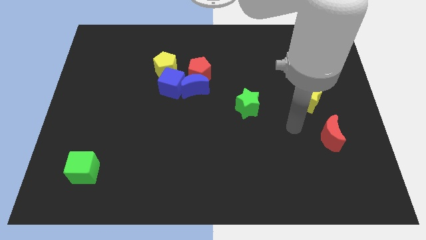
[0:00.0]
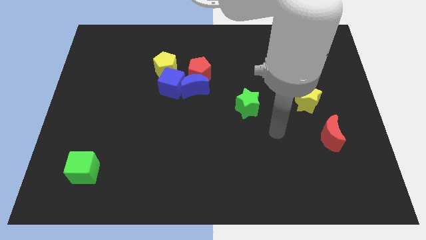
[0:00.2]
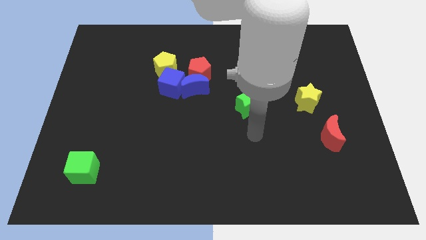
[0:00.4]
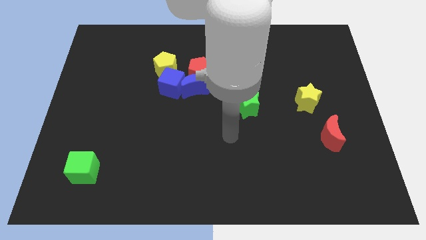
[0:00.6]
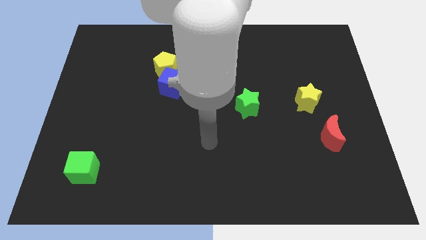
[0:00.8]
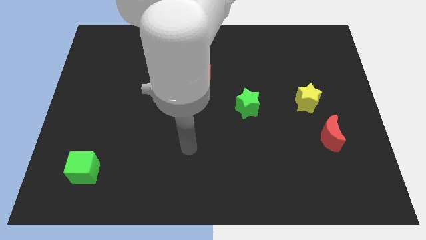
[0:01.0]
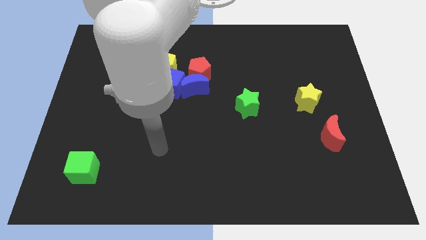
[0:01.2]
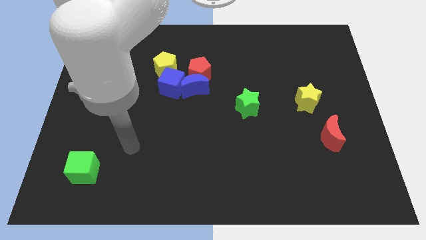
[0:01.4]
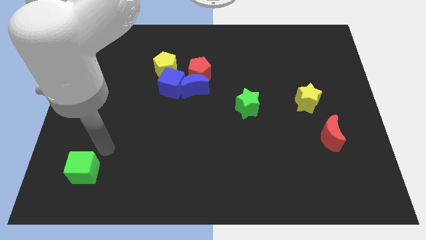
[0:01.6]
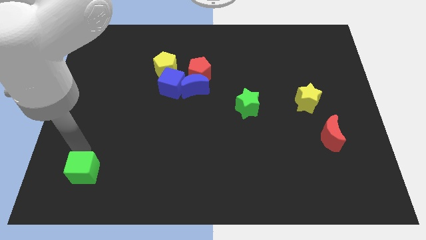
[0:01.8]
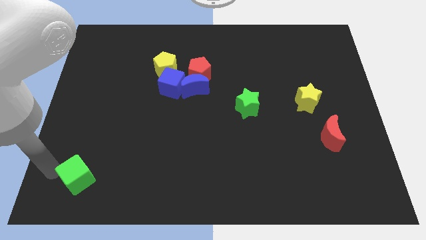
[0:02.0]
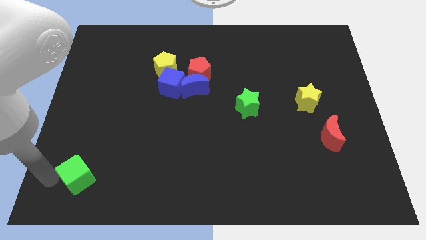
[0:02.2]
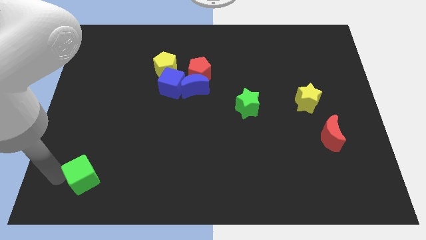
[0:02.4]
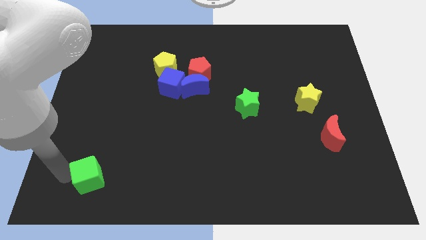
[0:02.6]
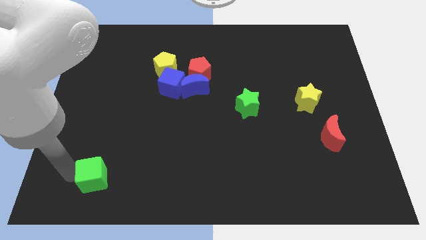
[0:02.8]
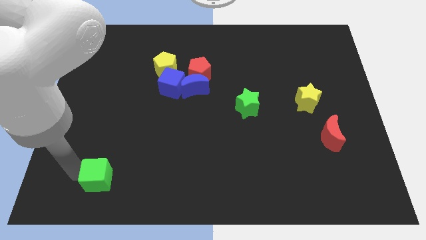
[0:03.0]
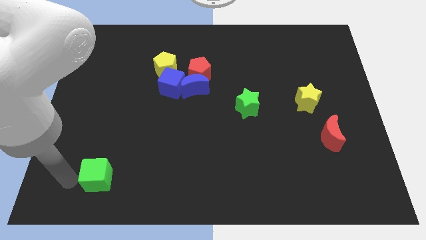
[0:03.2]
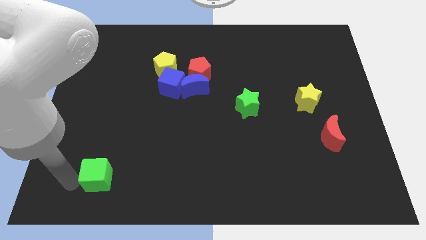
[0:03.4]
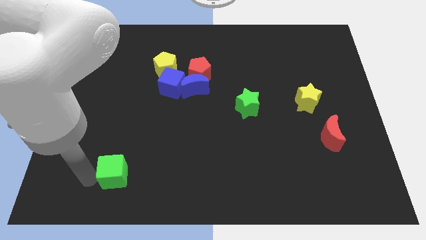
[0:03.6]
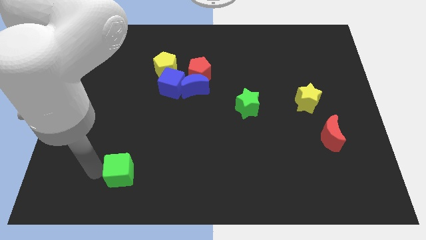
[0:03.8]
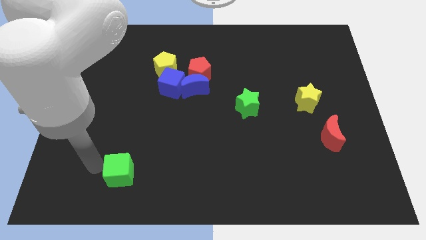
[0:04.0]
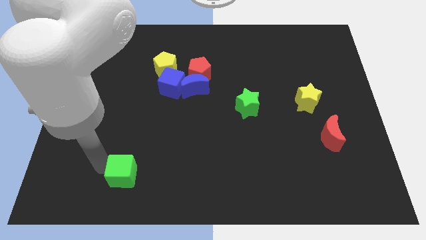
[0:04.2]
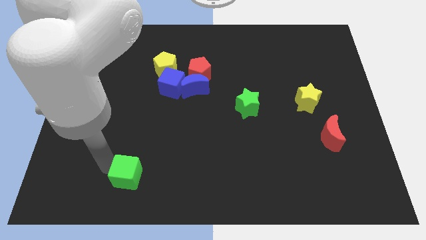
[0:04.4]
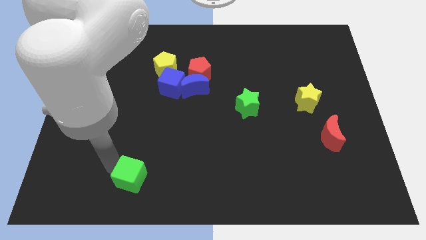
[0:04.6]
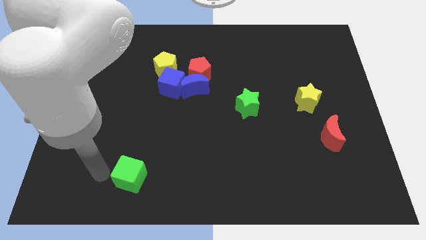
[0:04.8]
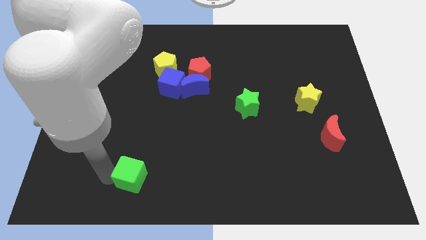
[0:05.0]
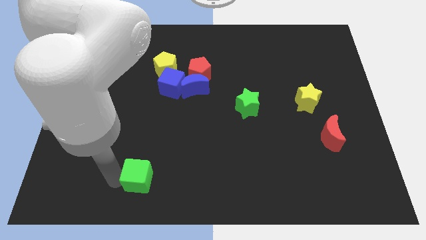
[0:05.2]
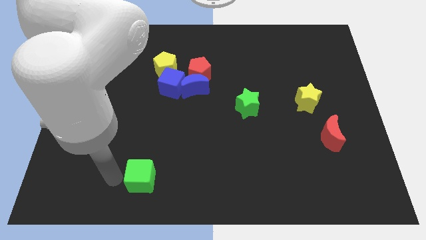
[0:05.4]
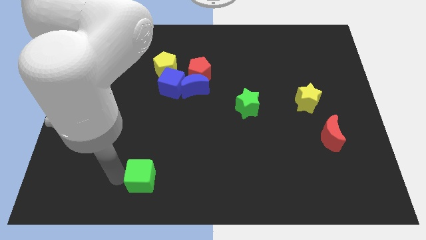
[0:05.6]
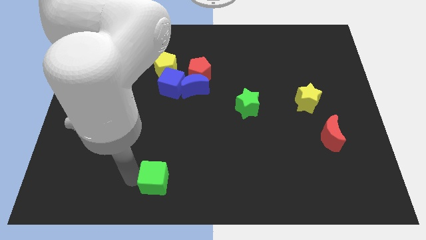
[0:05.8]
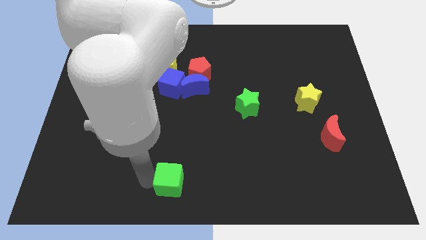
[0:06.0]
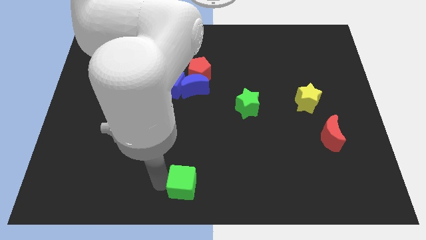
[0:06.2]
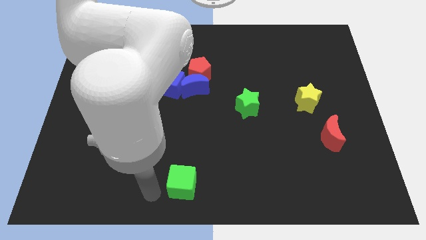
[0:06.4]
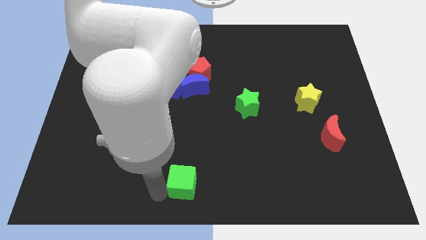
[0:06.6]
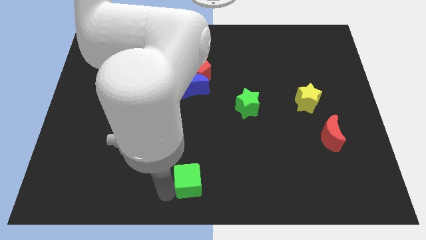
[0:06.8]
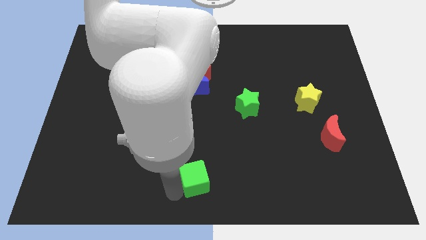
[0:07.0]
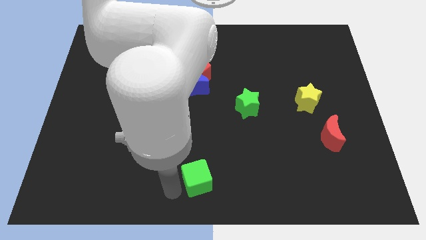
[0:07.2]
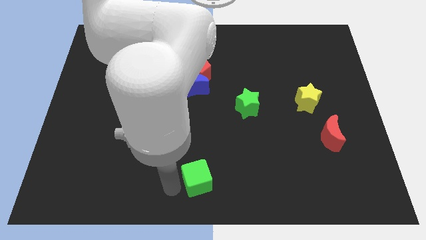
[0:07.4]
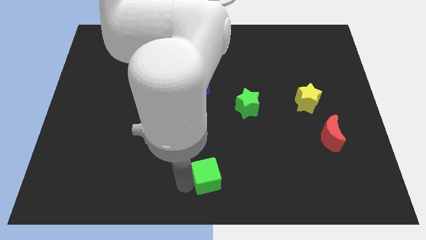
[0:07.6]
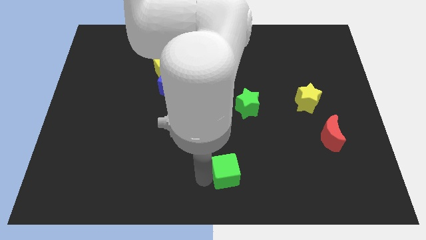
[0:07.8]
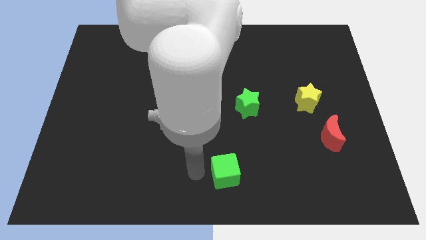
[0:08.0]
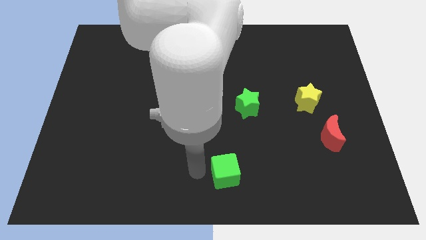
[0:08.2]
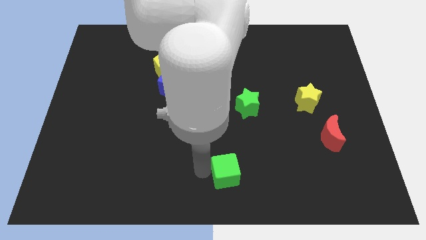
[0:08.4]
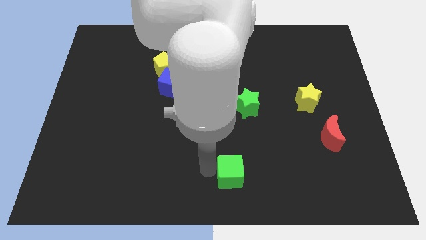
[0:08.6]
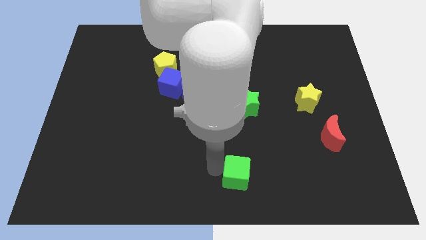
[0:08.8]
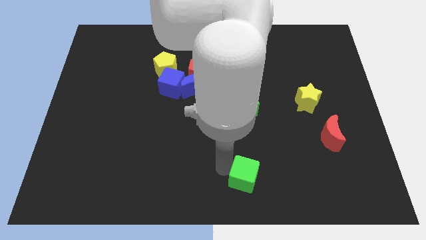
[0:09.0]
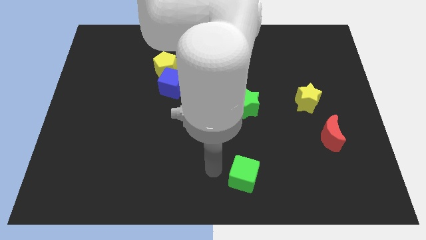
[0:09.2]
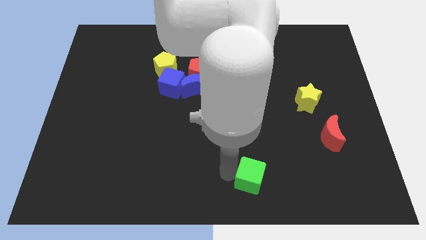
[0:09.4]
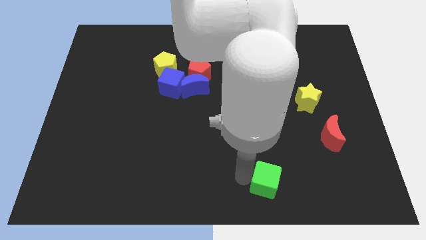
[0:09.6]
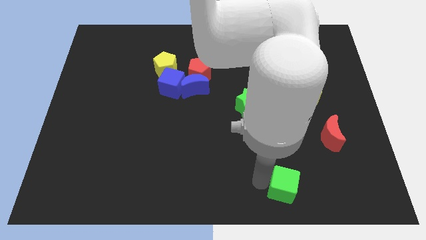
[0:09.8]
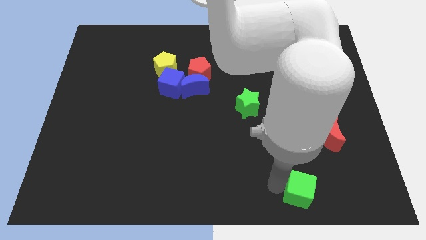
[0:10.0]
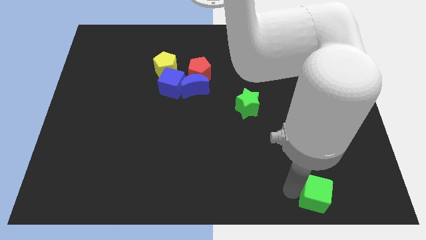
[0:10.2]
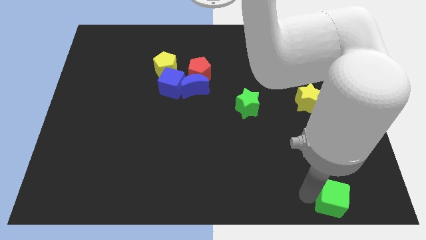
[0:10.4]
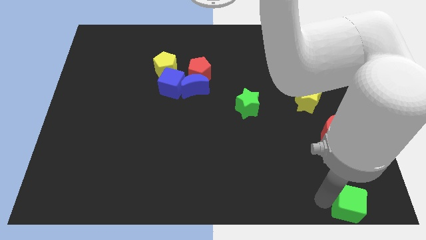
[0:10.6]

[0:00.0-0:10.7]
slide the green cube to the bottom right
